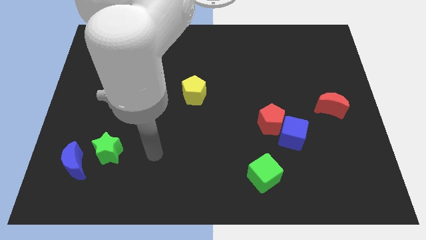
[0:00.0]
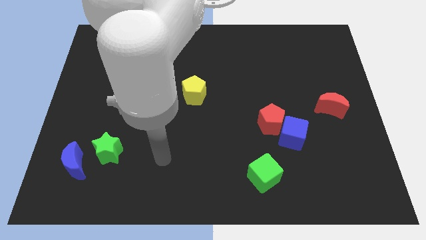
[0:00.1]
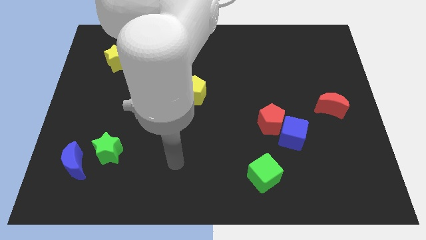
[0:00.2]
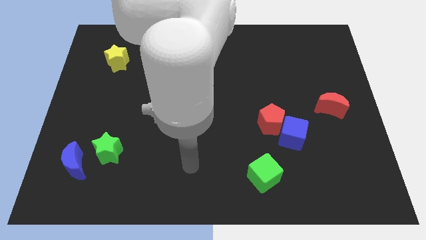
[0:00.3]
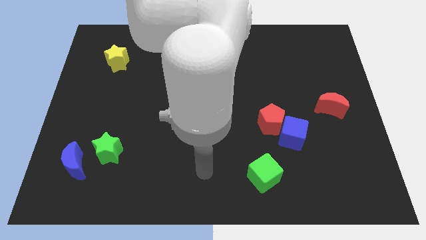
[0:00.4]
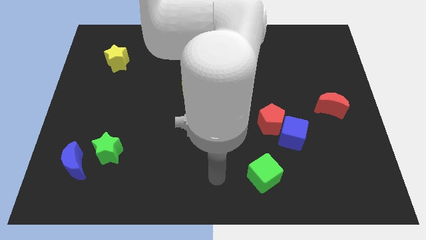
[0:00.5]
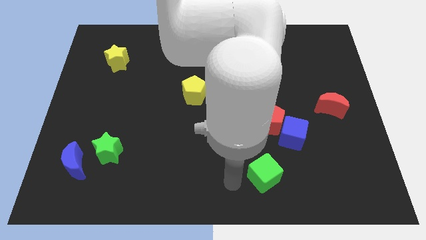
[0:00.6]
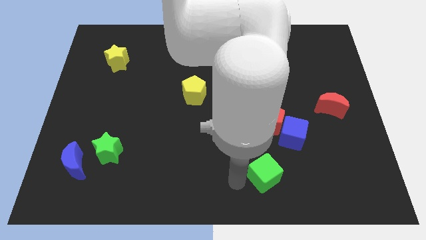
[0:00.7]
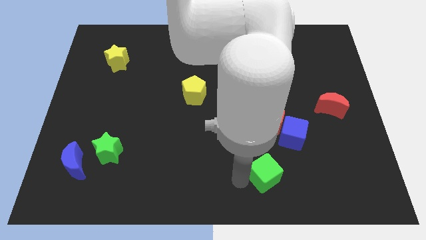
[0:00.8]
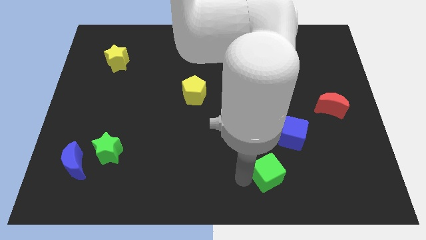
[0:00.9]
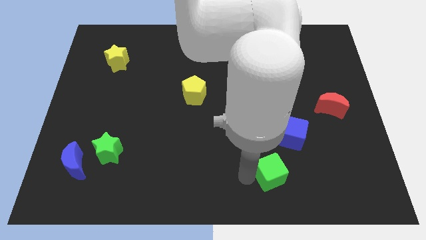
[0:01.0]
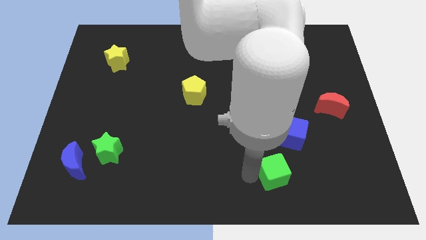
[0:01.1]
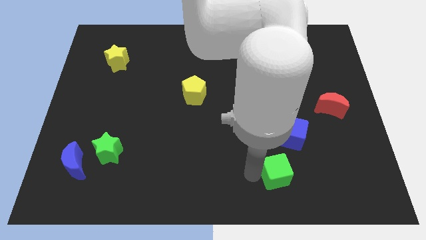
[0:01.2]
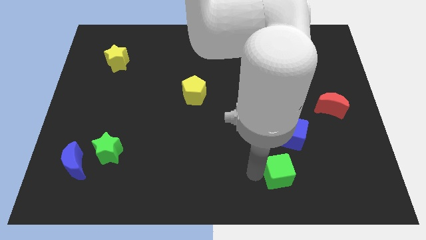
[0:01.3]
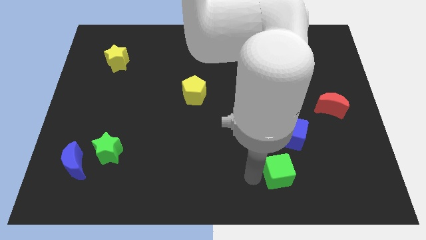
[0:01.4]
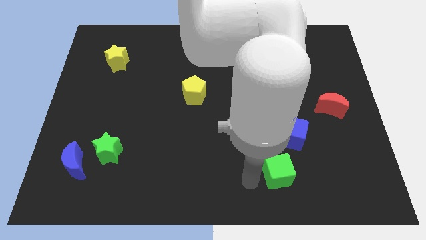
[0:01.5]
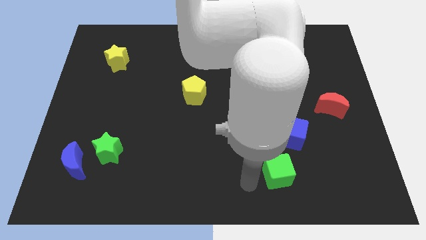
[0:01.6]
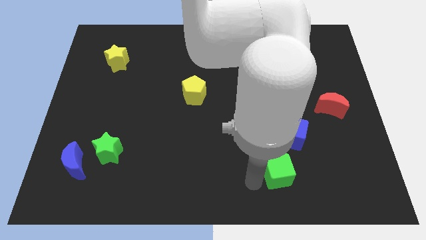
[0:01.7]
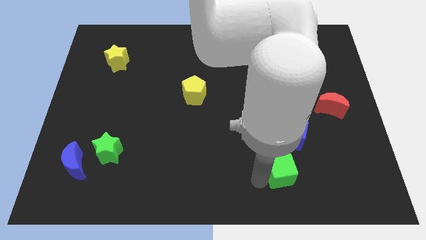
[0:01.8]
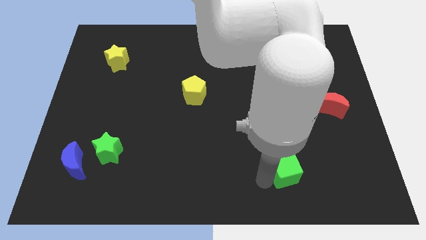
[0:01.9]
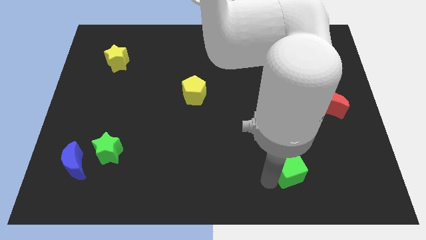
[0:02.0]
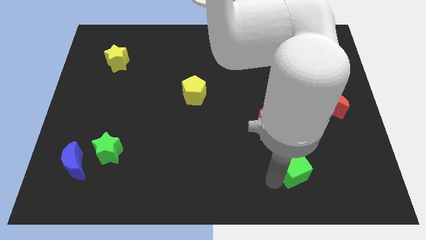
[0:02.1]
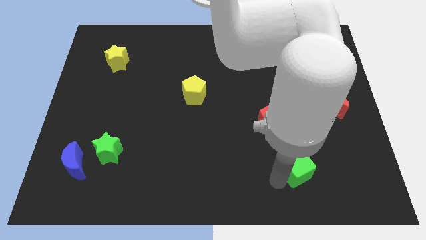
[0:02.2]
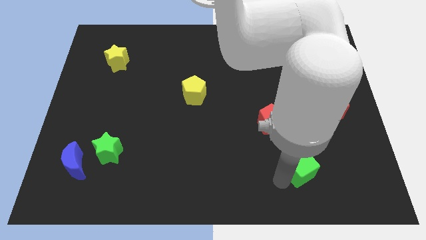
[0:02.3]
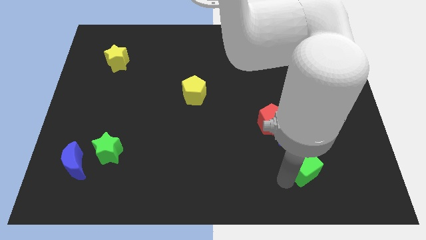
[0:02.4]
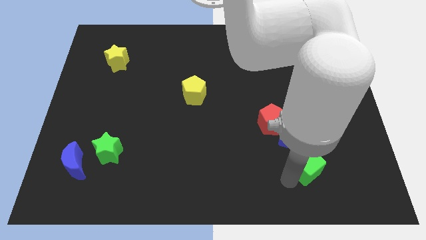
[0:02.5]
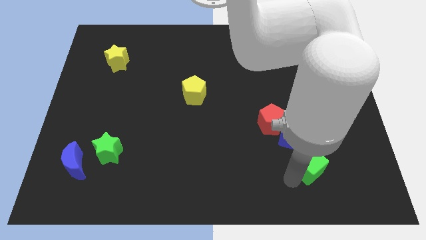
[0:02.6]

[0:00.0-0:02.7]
move the green cube up and then to the right a little

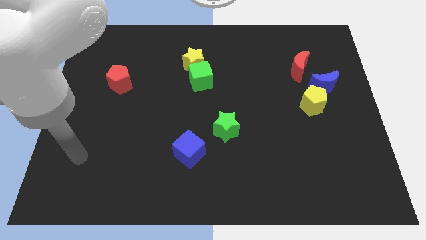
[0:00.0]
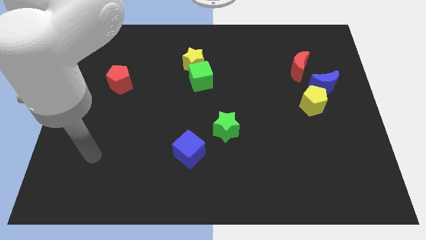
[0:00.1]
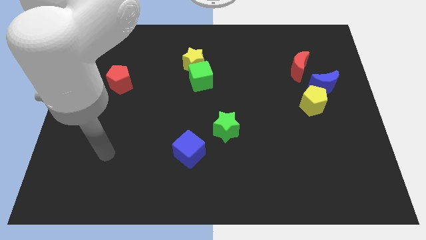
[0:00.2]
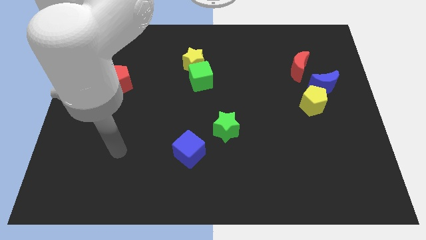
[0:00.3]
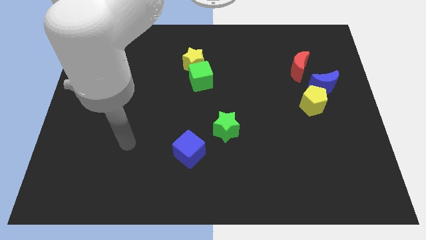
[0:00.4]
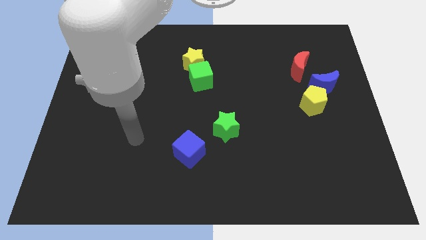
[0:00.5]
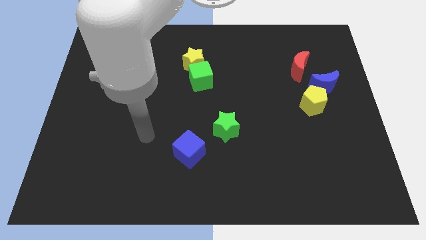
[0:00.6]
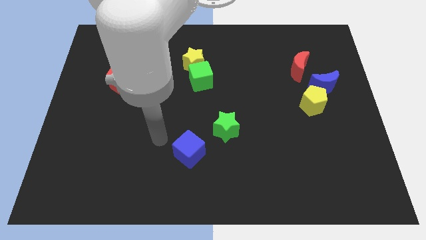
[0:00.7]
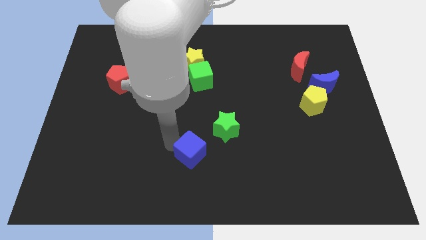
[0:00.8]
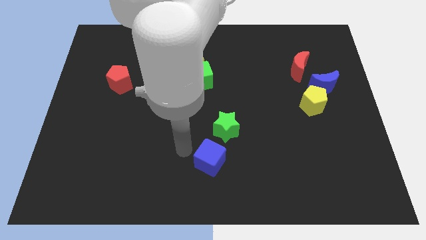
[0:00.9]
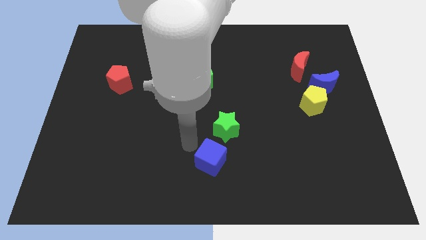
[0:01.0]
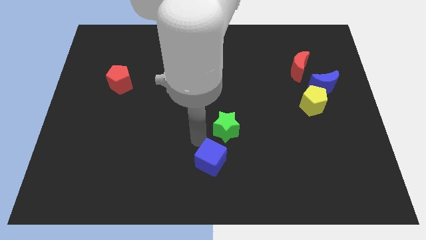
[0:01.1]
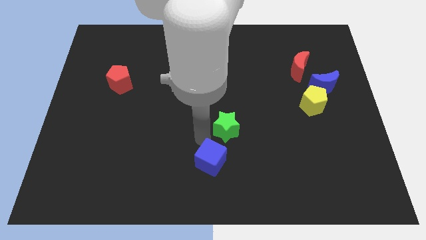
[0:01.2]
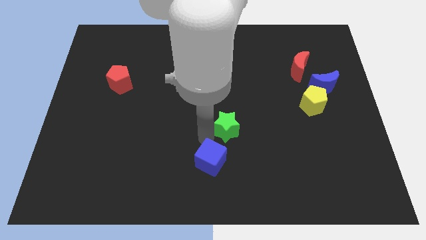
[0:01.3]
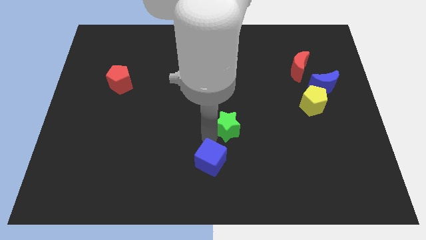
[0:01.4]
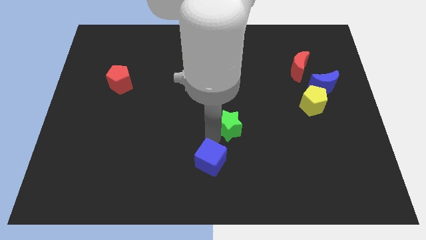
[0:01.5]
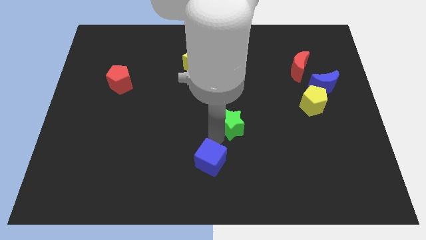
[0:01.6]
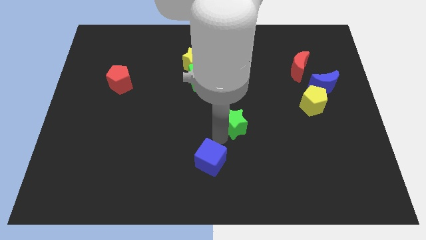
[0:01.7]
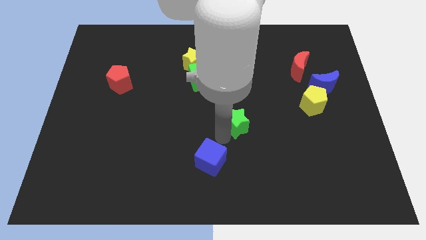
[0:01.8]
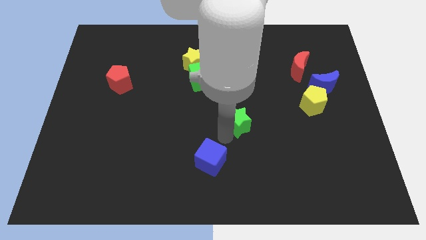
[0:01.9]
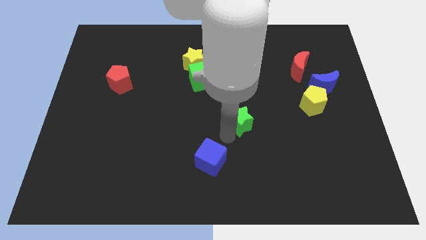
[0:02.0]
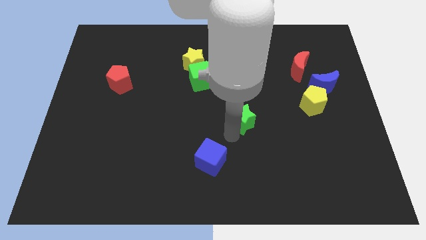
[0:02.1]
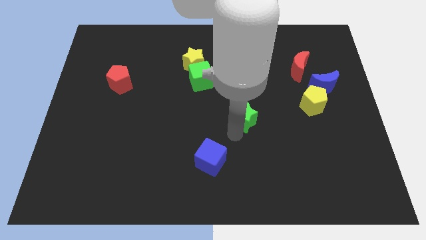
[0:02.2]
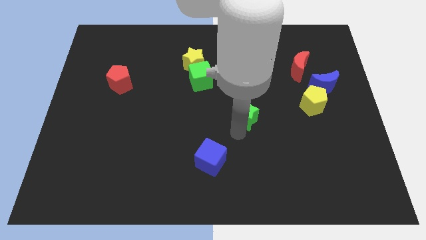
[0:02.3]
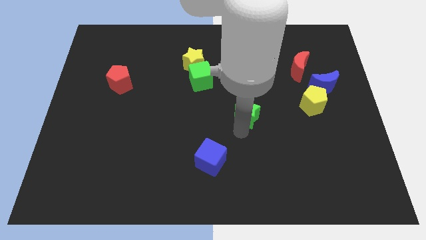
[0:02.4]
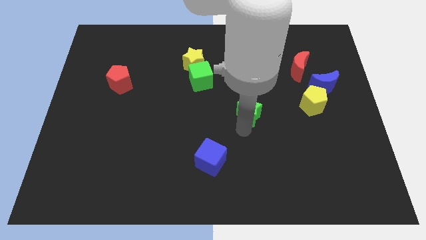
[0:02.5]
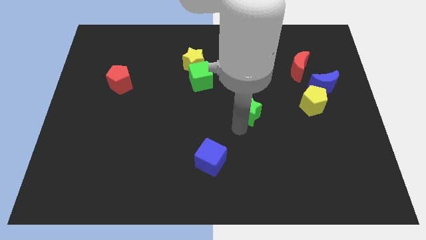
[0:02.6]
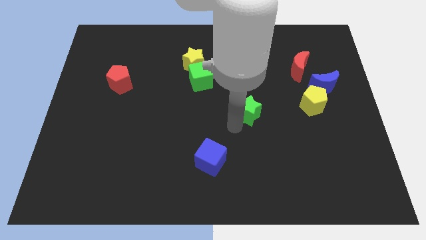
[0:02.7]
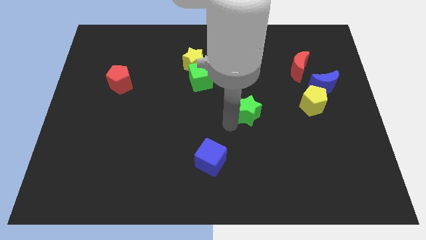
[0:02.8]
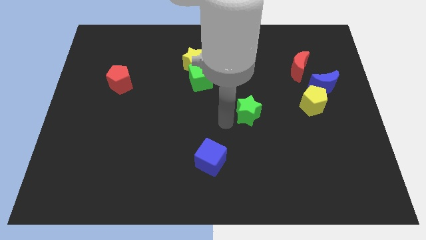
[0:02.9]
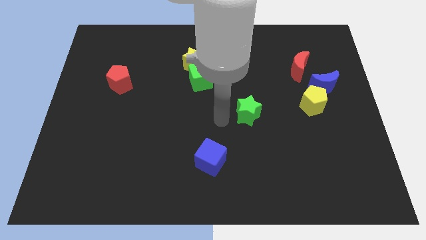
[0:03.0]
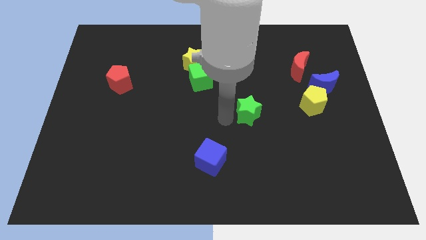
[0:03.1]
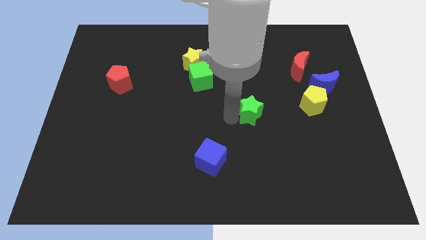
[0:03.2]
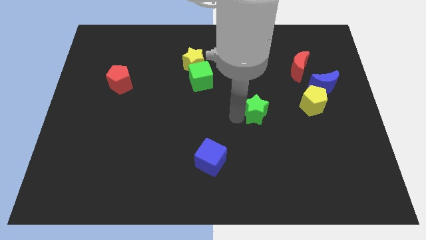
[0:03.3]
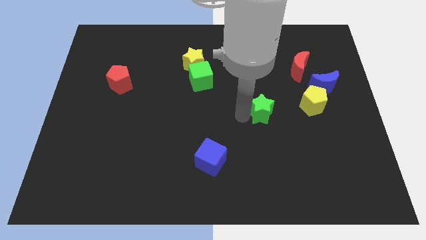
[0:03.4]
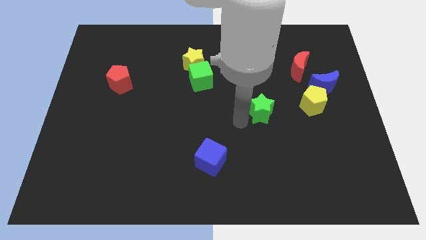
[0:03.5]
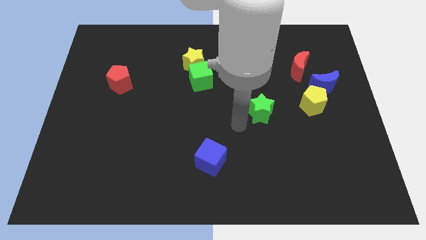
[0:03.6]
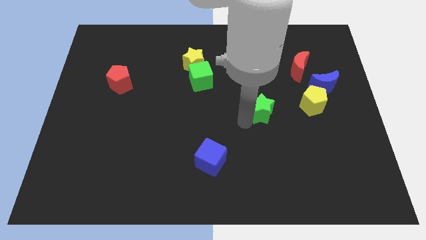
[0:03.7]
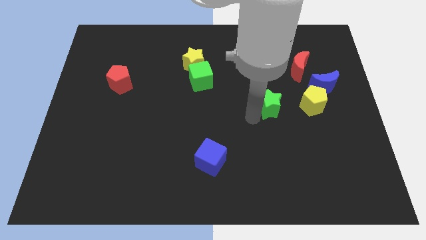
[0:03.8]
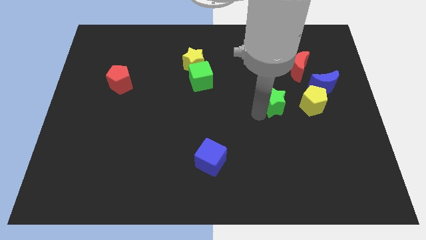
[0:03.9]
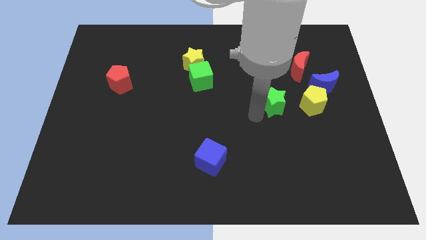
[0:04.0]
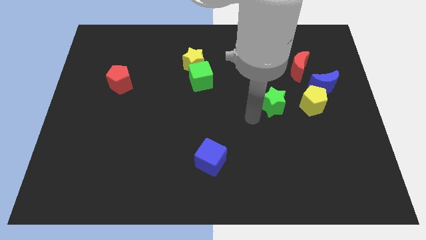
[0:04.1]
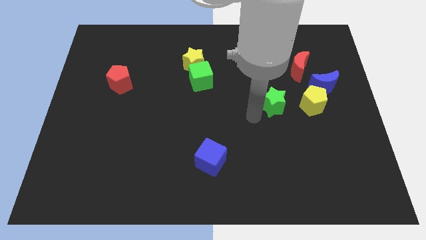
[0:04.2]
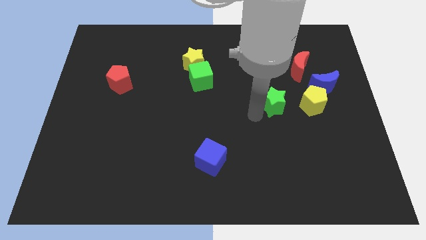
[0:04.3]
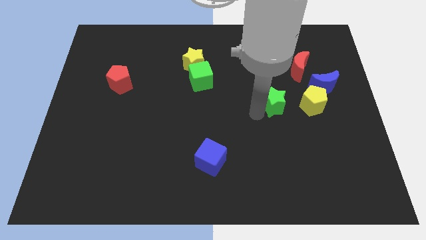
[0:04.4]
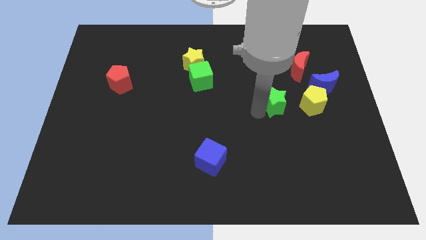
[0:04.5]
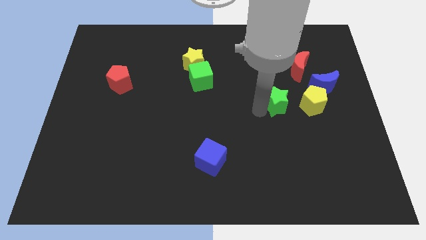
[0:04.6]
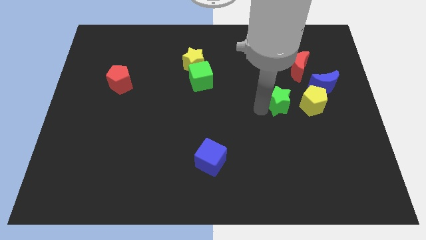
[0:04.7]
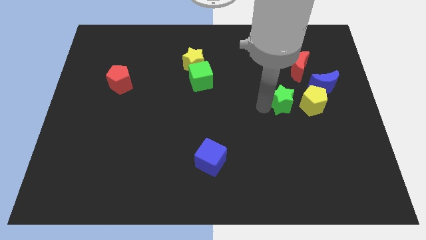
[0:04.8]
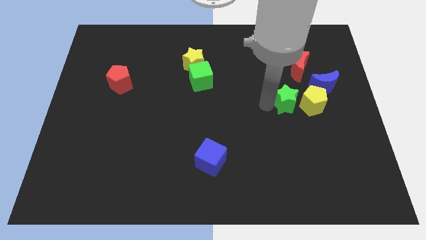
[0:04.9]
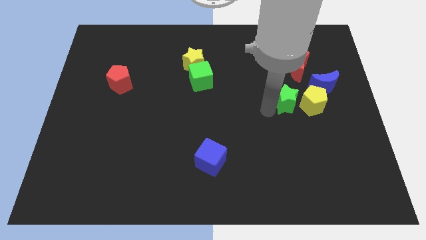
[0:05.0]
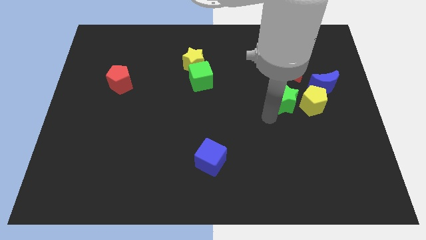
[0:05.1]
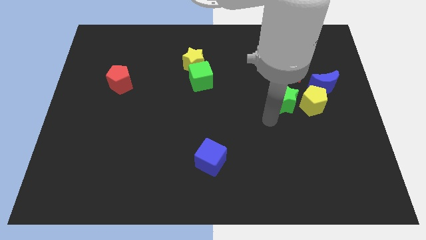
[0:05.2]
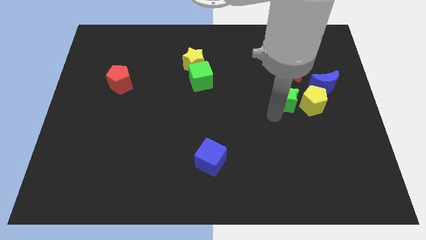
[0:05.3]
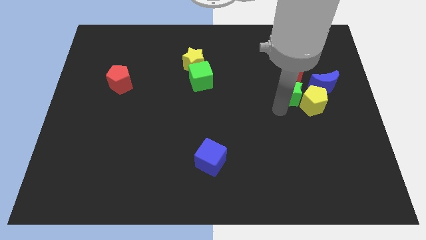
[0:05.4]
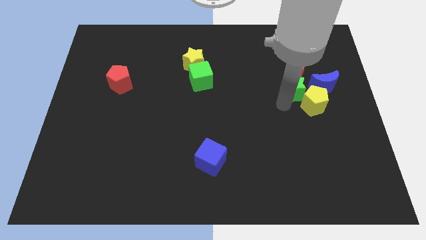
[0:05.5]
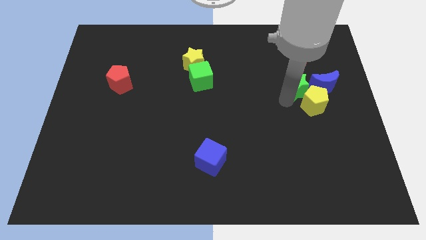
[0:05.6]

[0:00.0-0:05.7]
slide the green star upwards and then to the right
